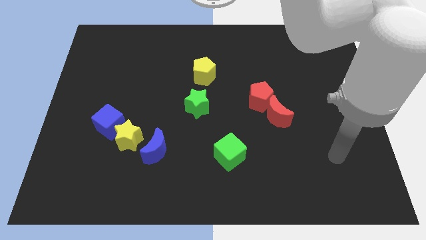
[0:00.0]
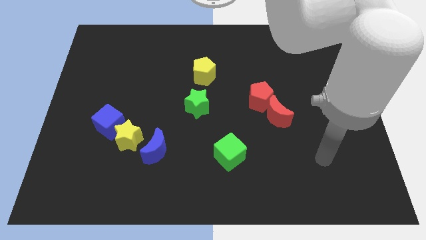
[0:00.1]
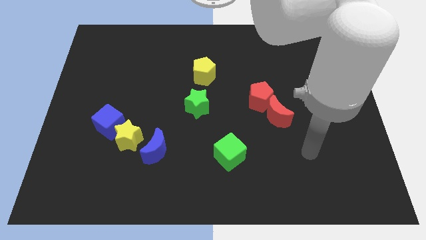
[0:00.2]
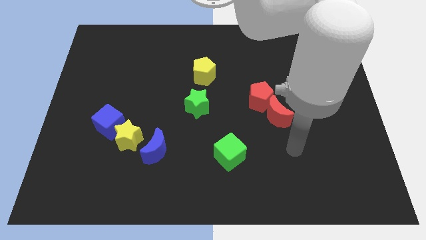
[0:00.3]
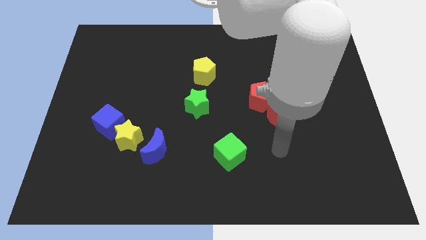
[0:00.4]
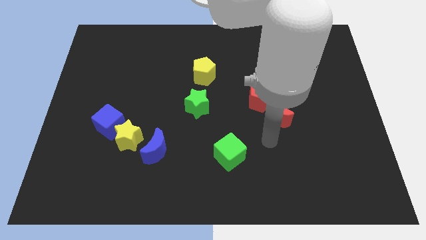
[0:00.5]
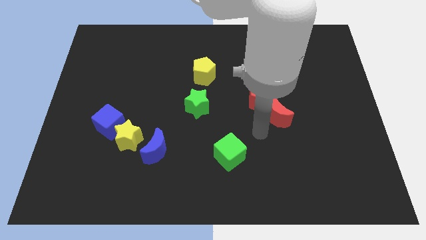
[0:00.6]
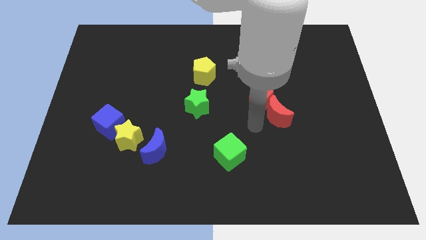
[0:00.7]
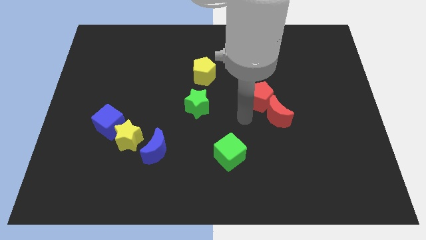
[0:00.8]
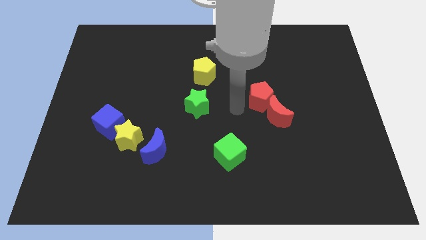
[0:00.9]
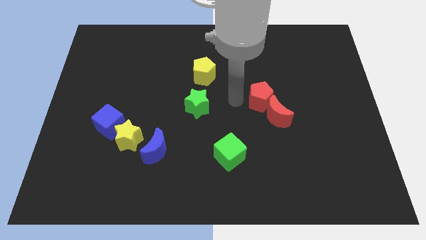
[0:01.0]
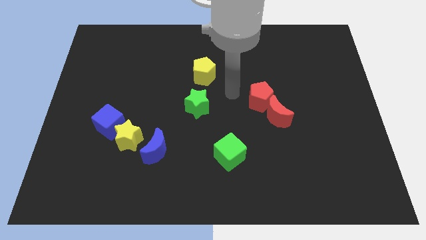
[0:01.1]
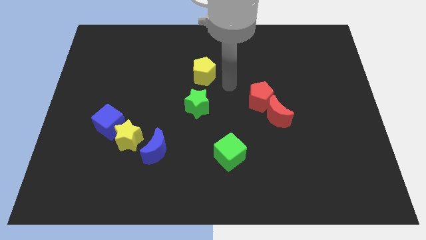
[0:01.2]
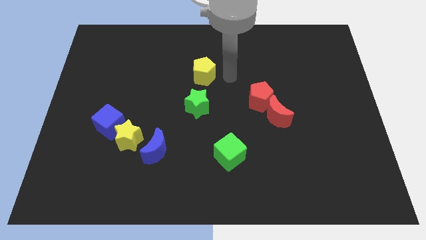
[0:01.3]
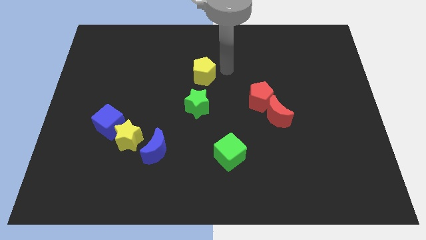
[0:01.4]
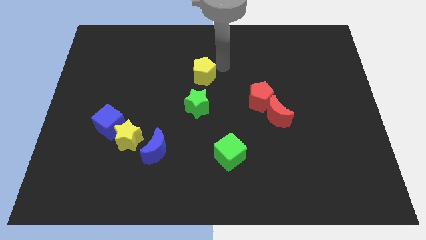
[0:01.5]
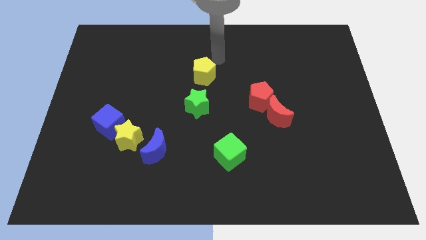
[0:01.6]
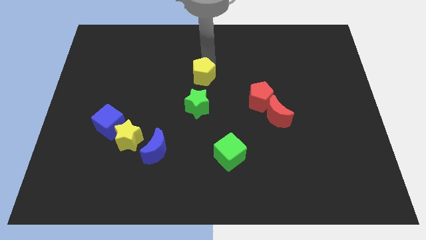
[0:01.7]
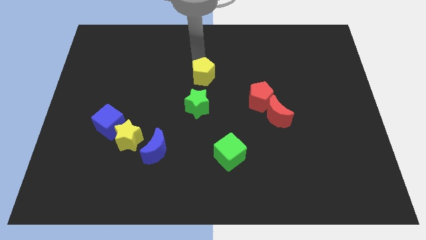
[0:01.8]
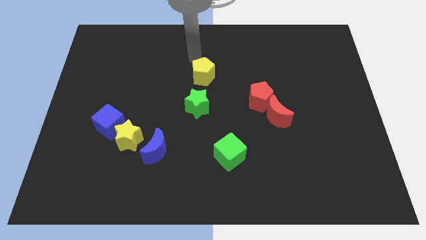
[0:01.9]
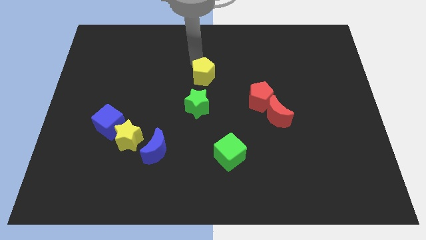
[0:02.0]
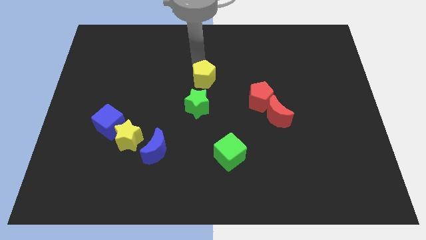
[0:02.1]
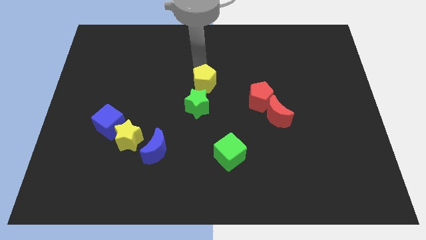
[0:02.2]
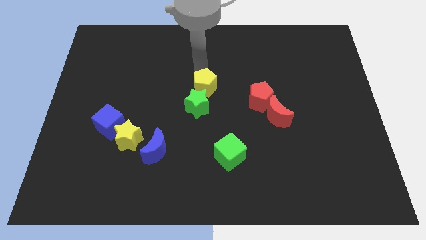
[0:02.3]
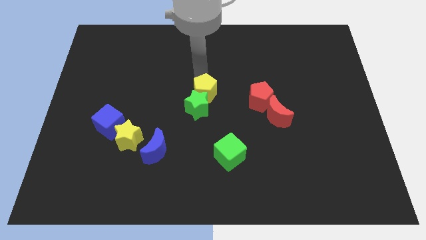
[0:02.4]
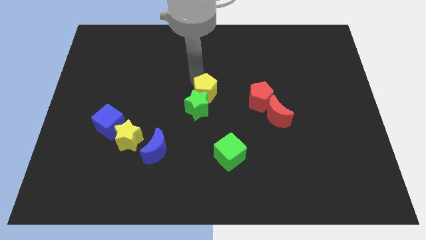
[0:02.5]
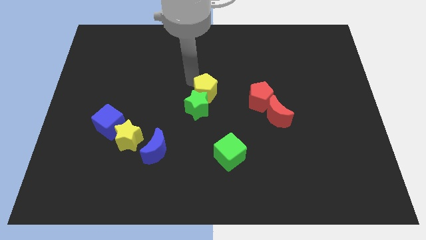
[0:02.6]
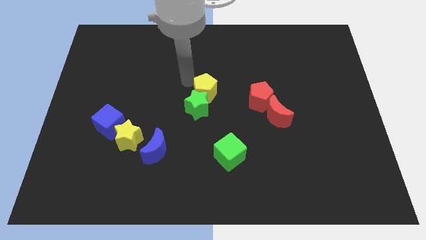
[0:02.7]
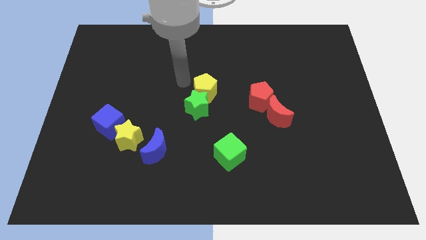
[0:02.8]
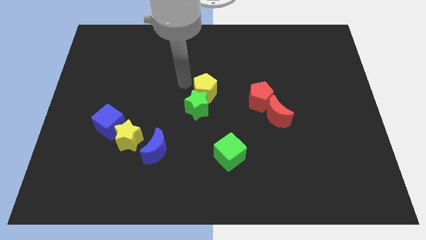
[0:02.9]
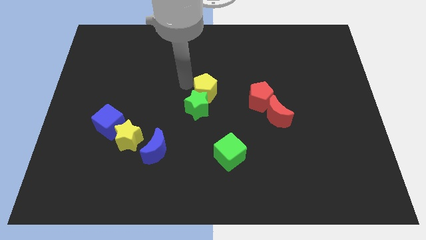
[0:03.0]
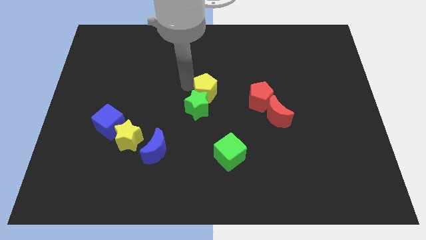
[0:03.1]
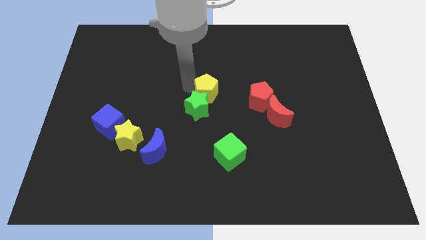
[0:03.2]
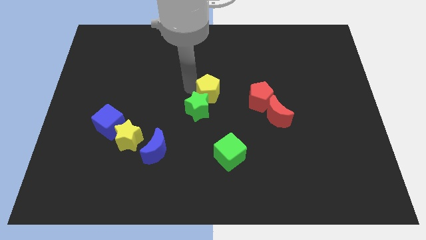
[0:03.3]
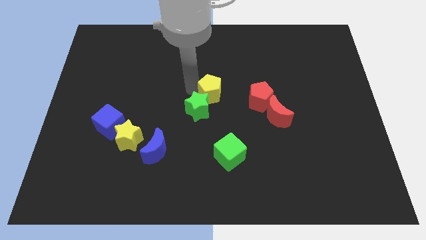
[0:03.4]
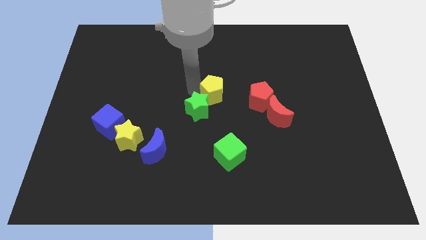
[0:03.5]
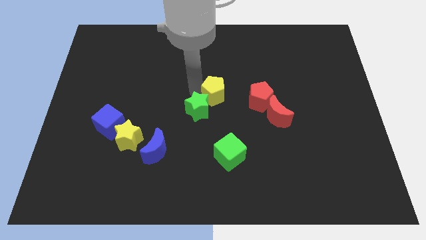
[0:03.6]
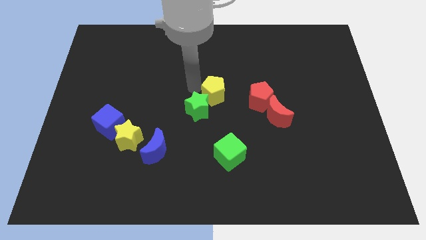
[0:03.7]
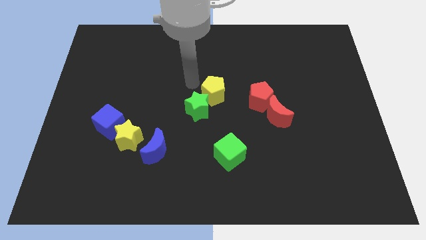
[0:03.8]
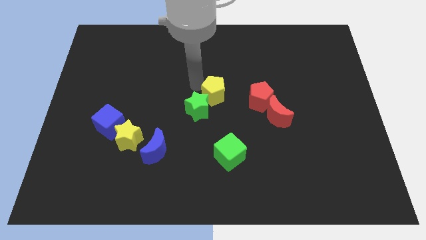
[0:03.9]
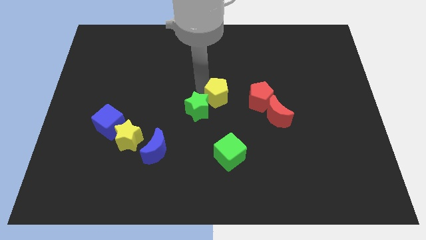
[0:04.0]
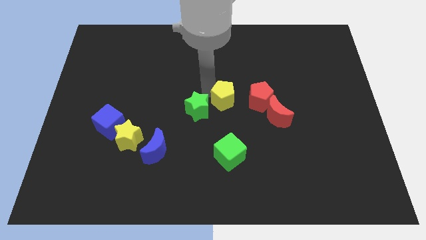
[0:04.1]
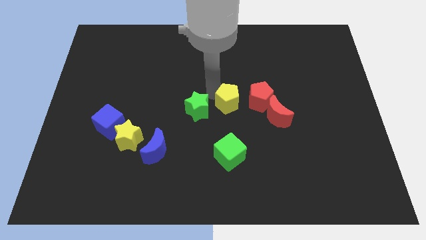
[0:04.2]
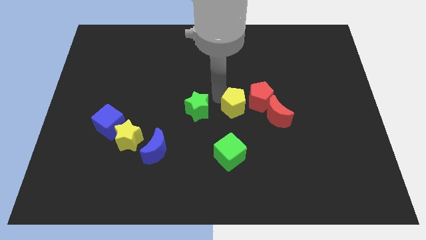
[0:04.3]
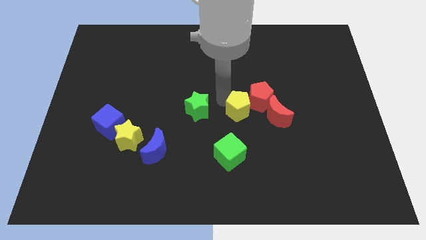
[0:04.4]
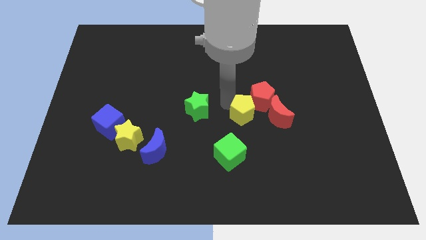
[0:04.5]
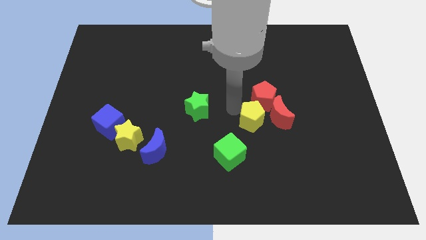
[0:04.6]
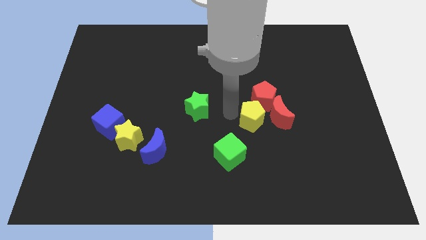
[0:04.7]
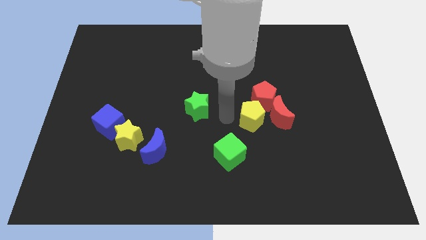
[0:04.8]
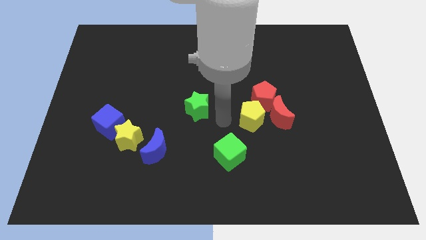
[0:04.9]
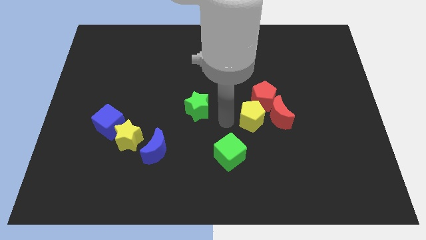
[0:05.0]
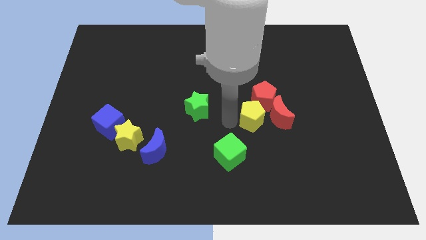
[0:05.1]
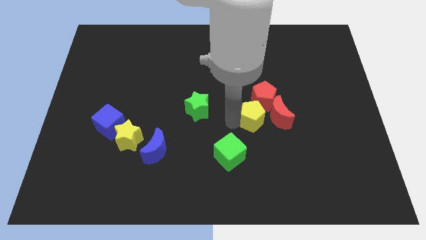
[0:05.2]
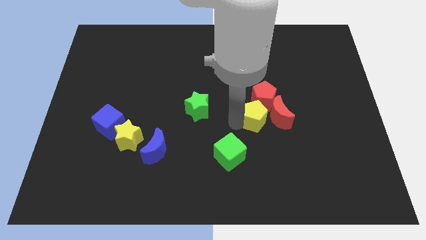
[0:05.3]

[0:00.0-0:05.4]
push the yellow pentagon towards the red moon
